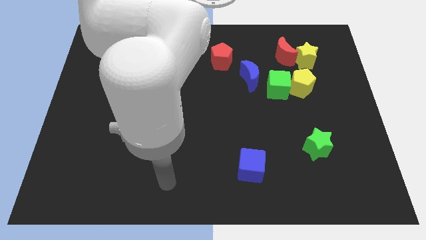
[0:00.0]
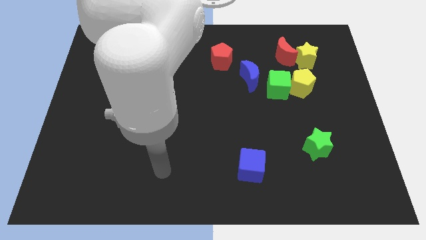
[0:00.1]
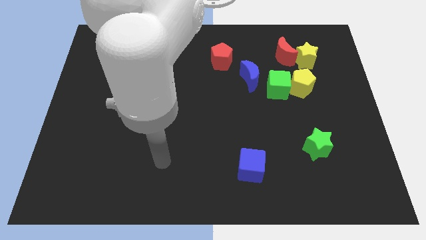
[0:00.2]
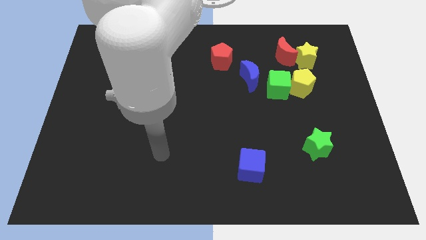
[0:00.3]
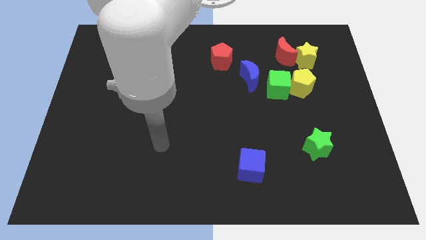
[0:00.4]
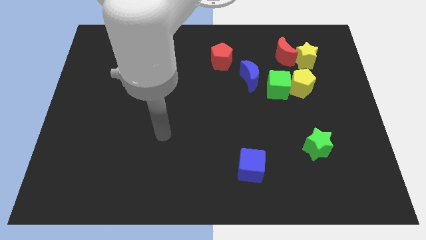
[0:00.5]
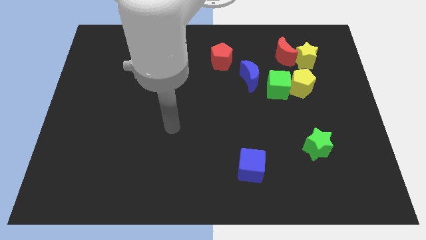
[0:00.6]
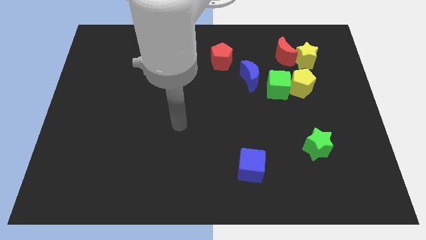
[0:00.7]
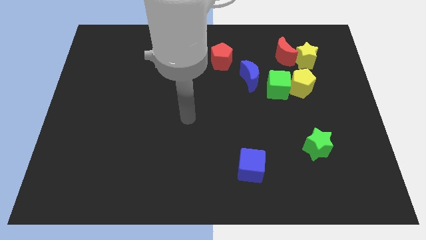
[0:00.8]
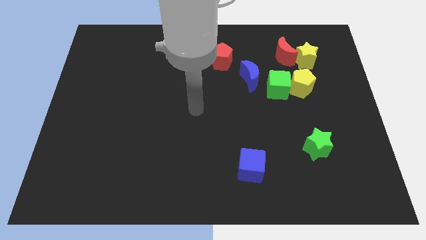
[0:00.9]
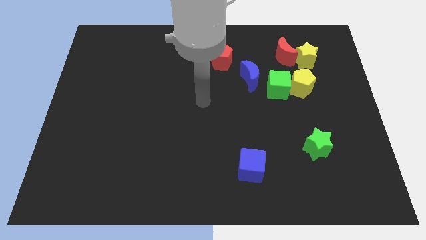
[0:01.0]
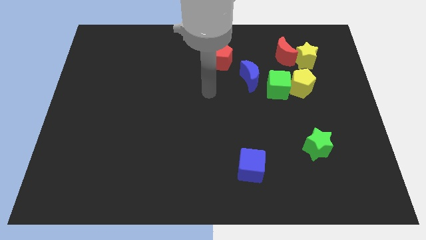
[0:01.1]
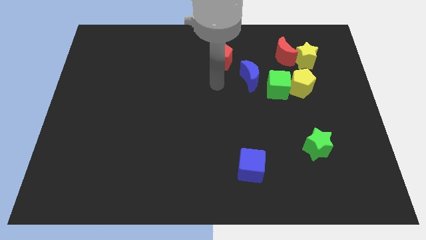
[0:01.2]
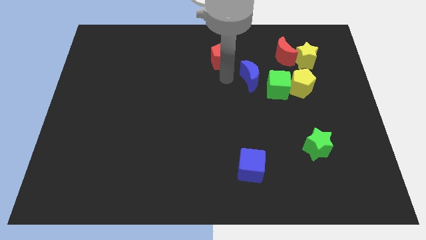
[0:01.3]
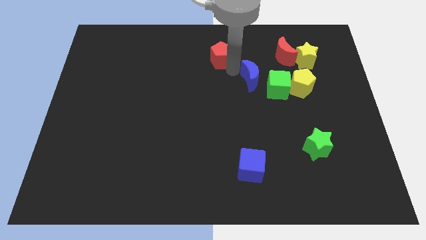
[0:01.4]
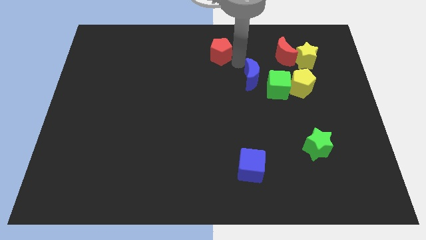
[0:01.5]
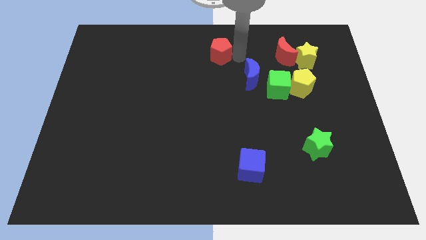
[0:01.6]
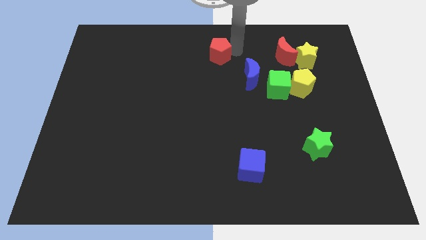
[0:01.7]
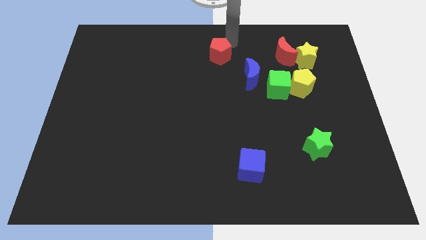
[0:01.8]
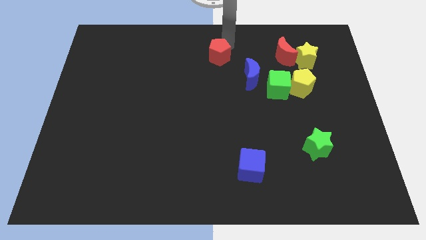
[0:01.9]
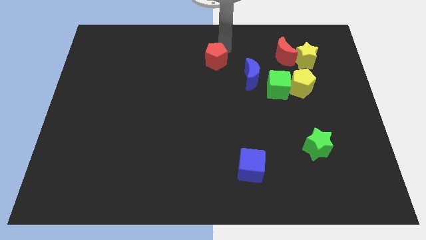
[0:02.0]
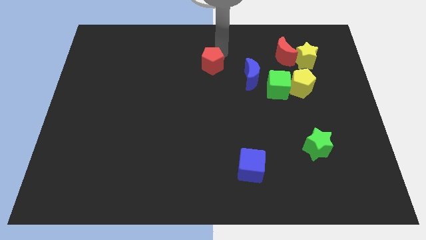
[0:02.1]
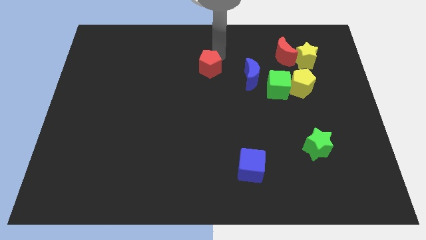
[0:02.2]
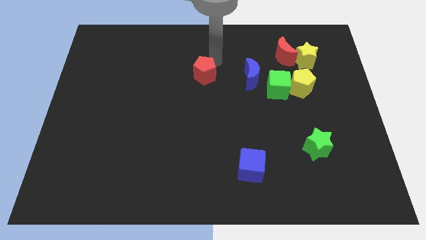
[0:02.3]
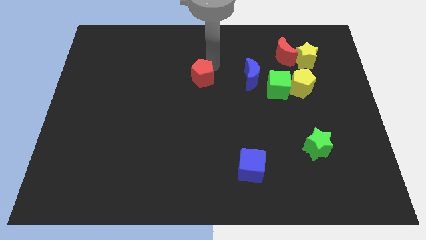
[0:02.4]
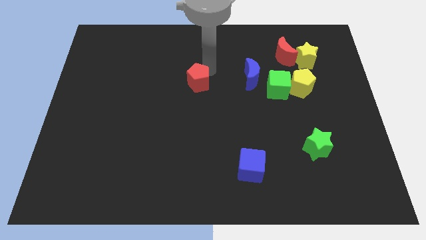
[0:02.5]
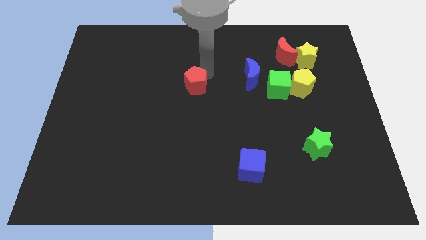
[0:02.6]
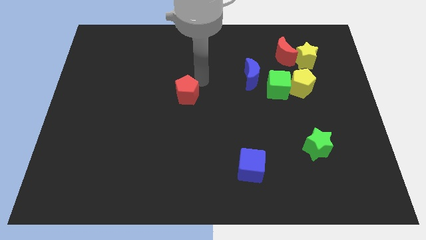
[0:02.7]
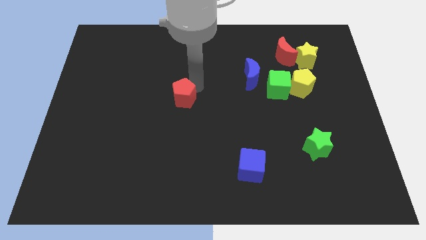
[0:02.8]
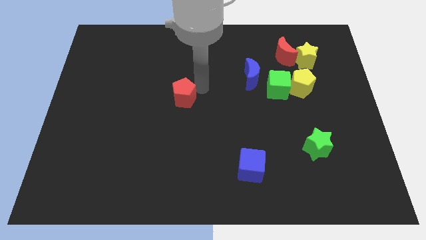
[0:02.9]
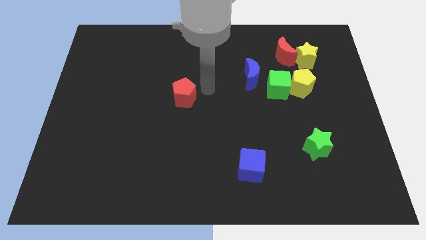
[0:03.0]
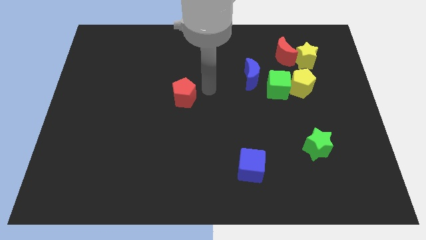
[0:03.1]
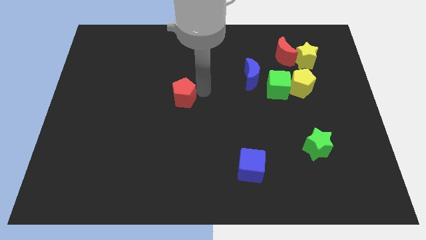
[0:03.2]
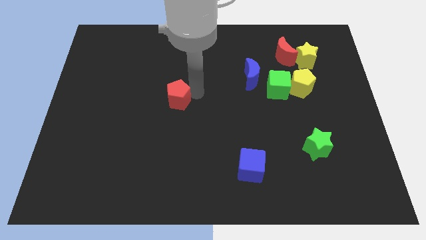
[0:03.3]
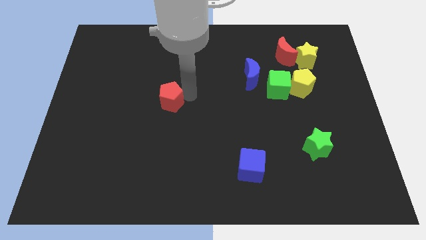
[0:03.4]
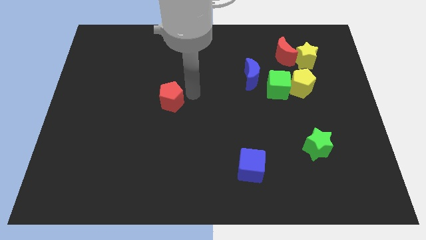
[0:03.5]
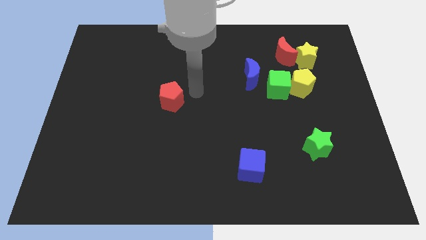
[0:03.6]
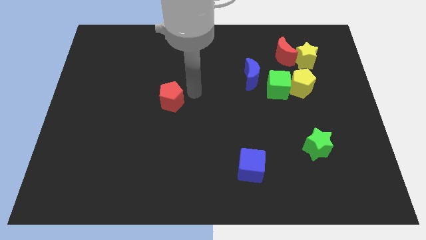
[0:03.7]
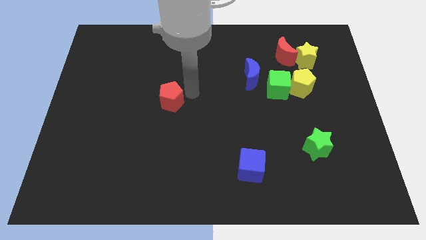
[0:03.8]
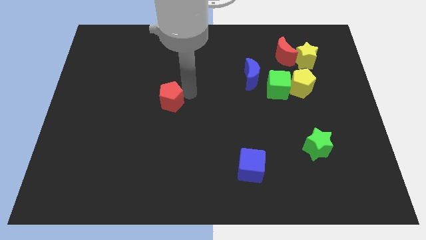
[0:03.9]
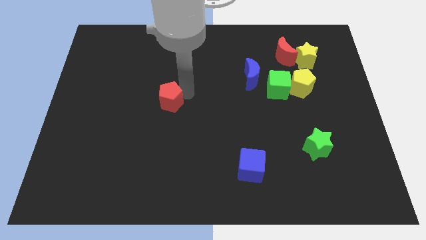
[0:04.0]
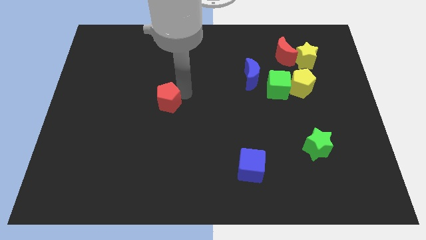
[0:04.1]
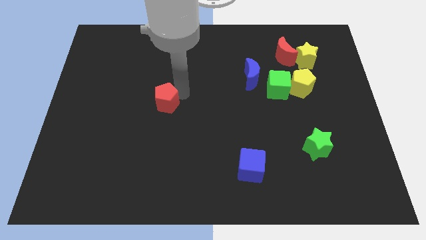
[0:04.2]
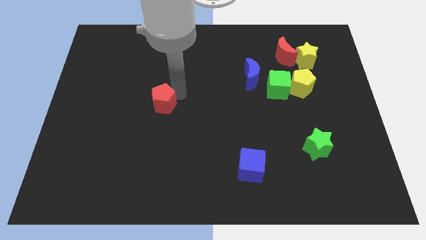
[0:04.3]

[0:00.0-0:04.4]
move the red pentagon diagonally downwards and to the left

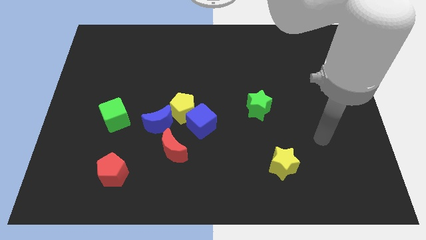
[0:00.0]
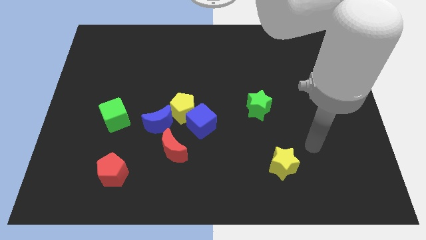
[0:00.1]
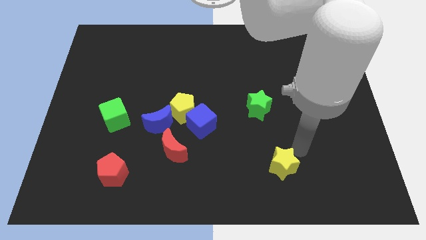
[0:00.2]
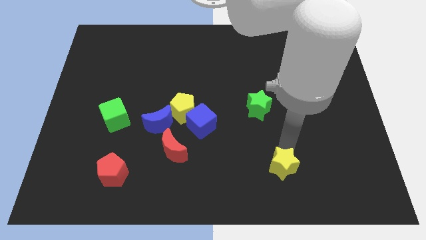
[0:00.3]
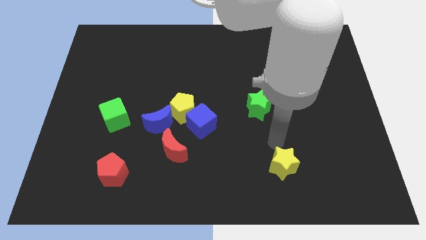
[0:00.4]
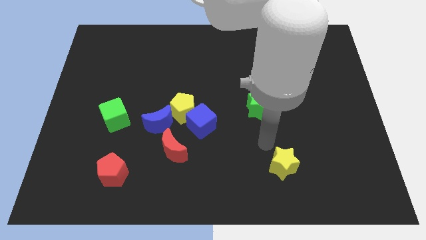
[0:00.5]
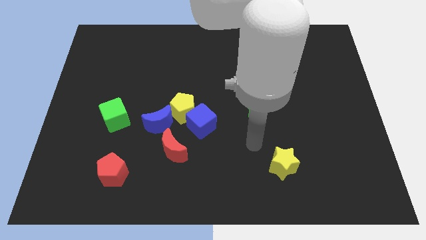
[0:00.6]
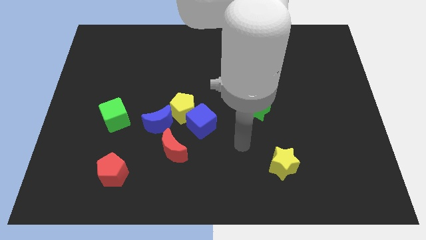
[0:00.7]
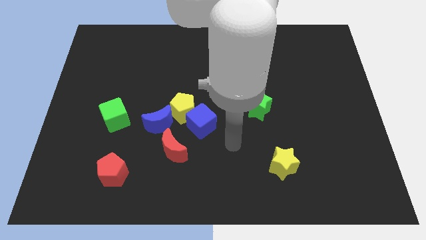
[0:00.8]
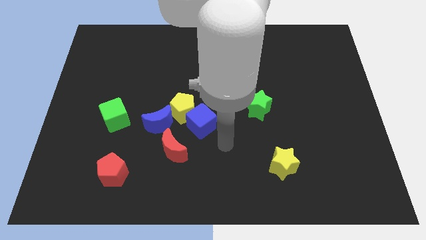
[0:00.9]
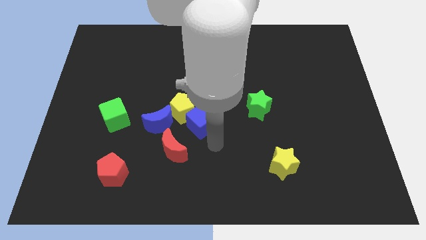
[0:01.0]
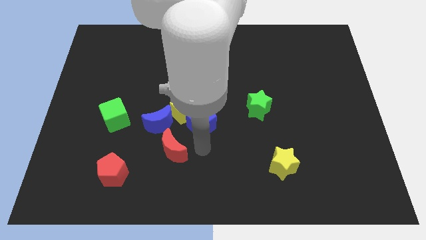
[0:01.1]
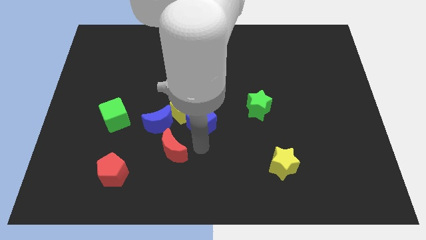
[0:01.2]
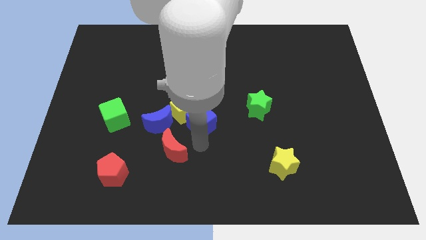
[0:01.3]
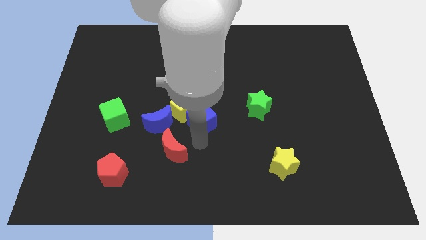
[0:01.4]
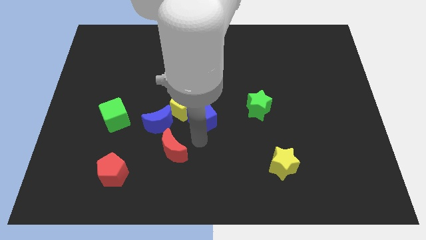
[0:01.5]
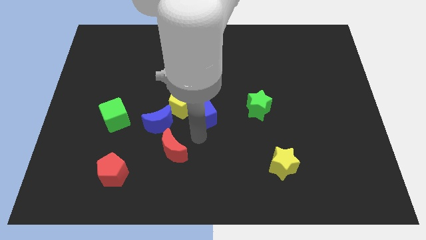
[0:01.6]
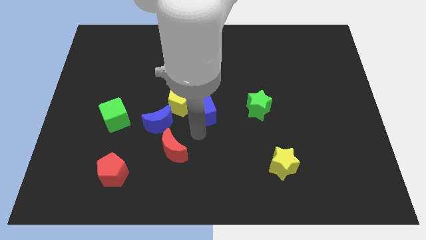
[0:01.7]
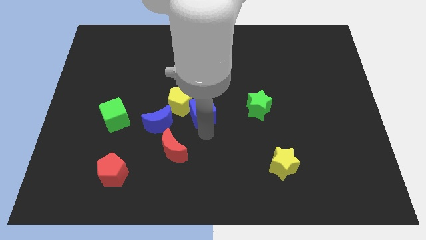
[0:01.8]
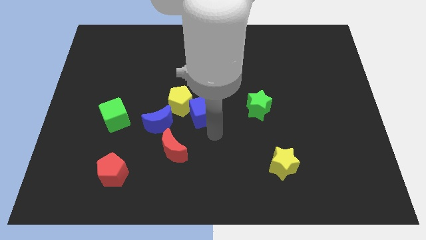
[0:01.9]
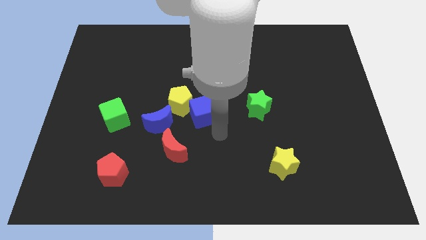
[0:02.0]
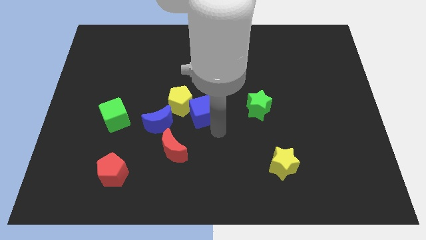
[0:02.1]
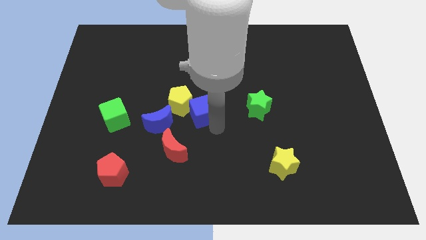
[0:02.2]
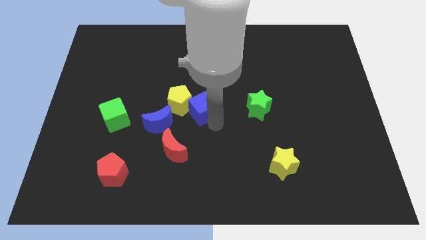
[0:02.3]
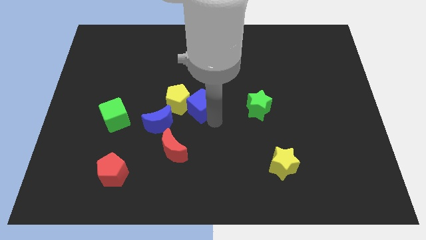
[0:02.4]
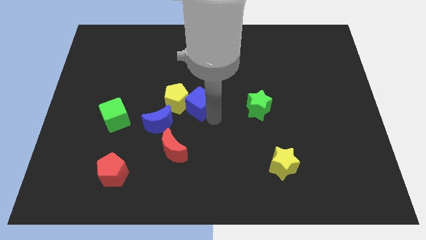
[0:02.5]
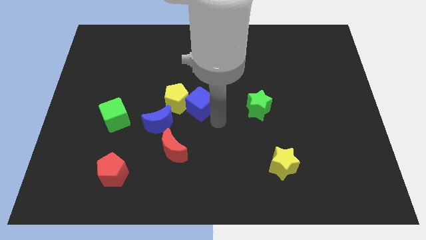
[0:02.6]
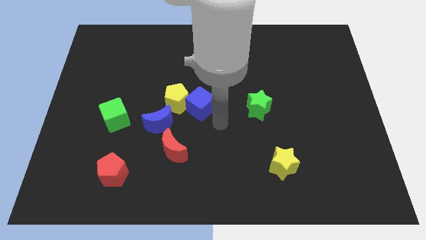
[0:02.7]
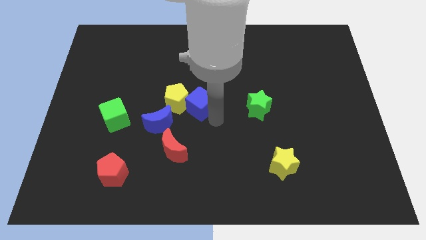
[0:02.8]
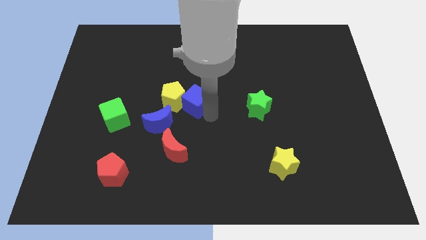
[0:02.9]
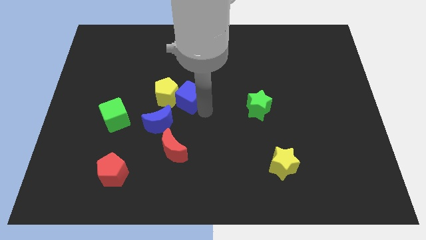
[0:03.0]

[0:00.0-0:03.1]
move the blue cube up and left diagonally somewhat

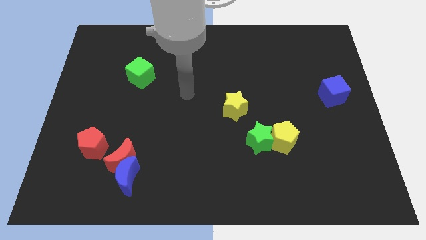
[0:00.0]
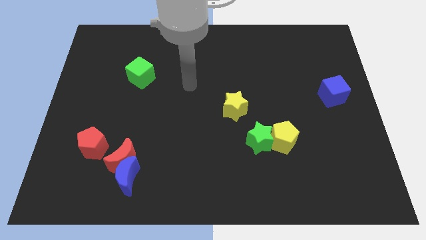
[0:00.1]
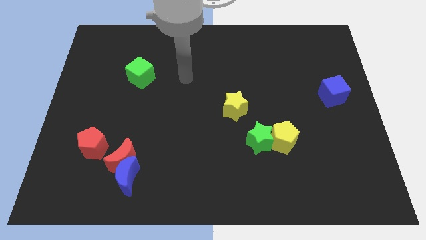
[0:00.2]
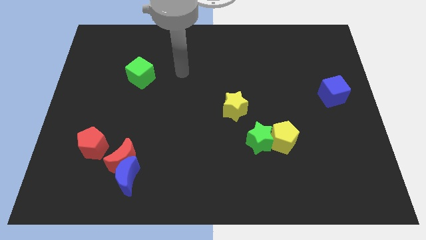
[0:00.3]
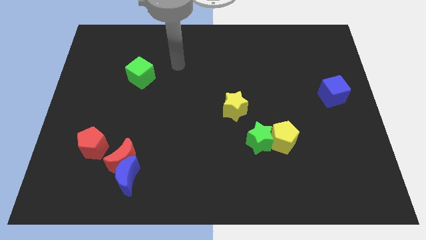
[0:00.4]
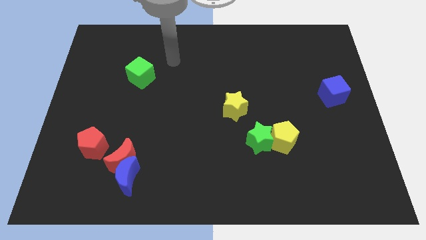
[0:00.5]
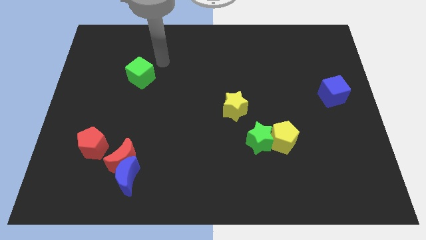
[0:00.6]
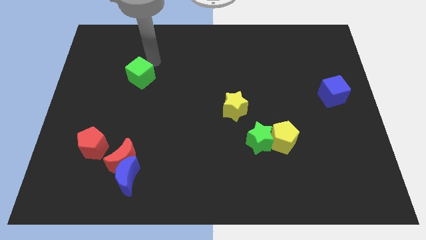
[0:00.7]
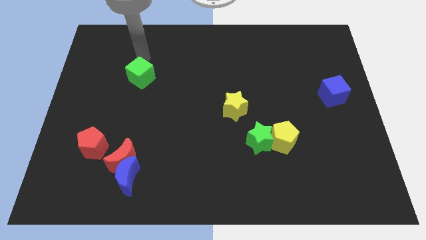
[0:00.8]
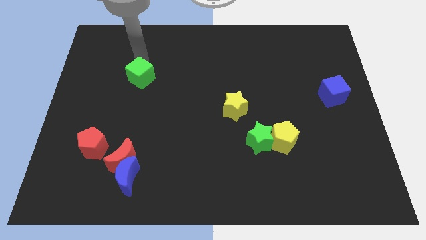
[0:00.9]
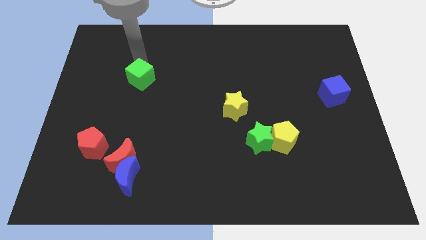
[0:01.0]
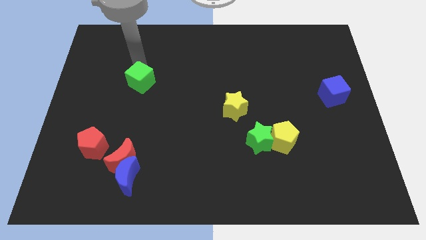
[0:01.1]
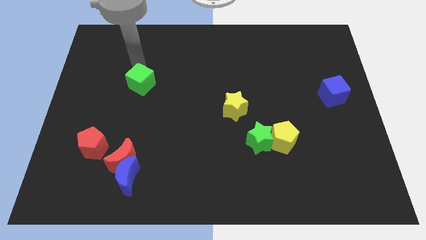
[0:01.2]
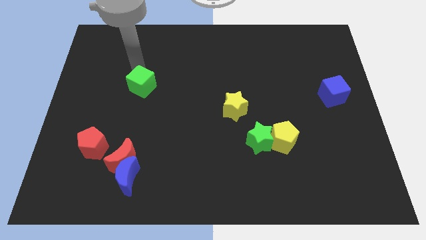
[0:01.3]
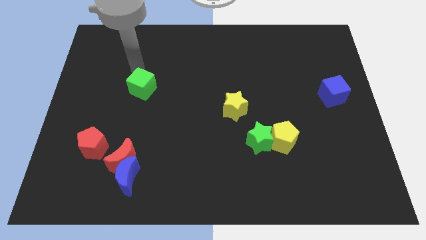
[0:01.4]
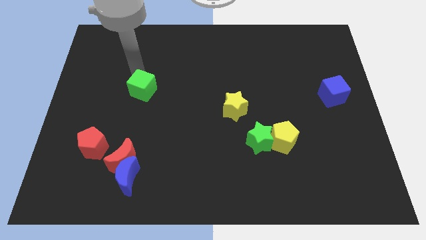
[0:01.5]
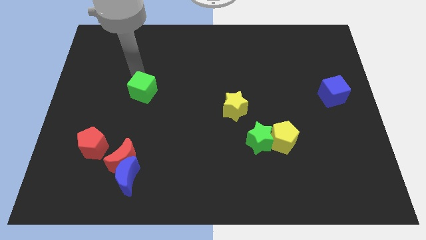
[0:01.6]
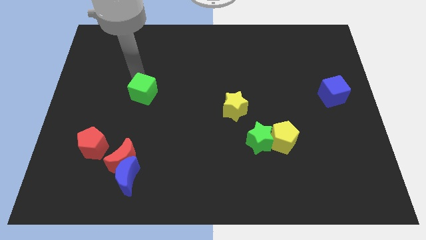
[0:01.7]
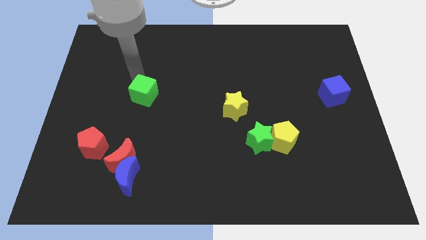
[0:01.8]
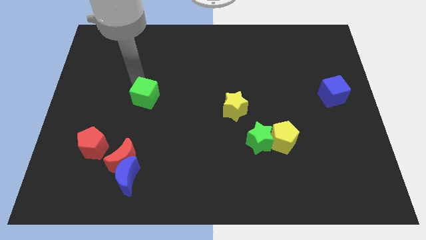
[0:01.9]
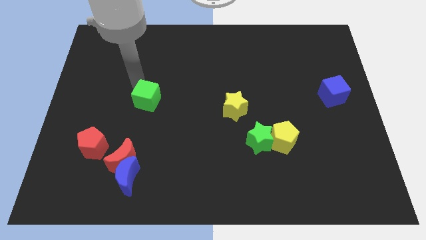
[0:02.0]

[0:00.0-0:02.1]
slightly push the green cube downwards
